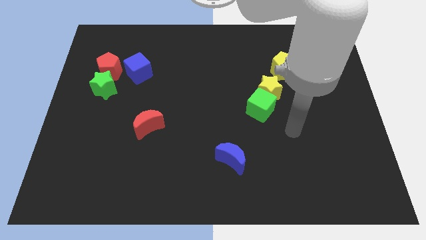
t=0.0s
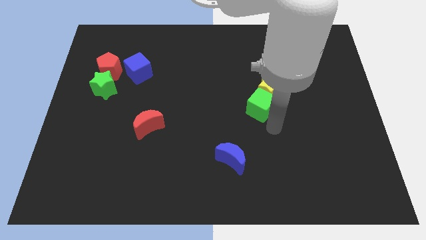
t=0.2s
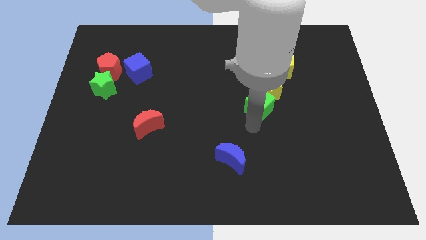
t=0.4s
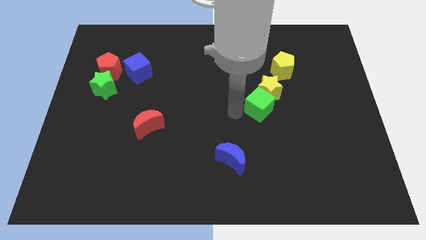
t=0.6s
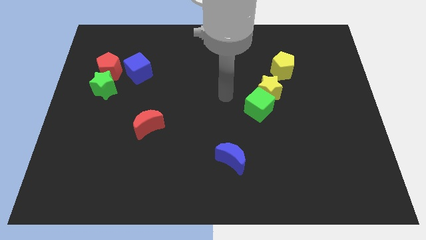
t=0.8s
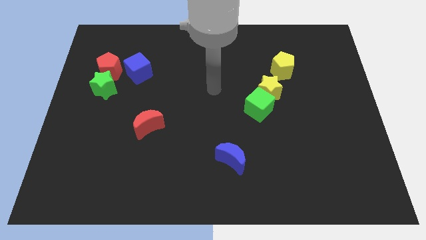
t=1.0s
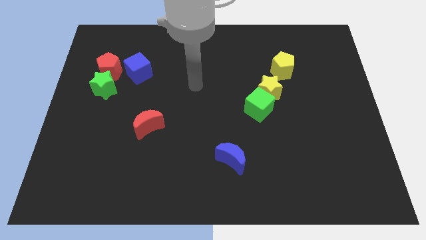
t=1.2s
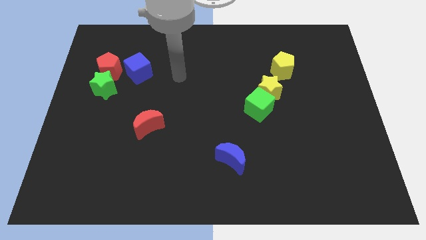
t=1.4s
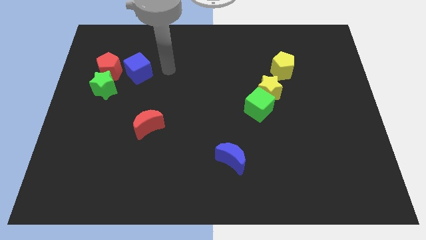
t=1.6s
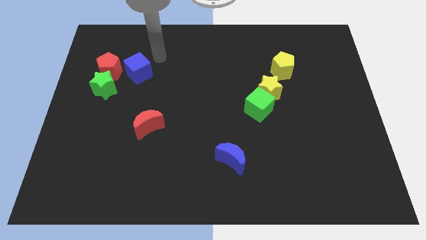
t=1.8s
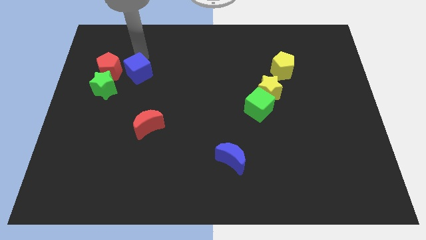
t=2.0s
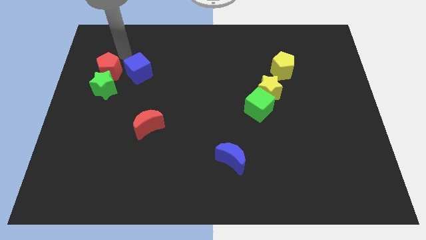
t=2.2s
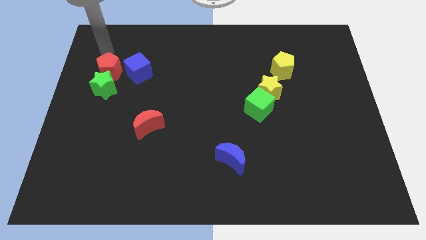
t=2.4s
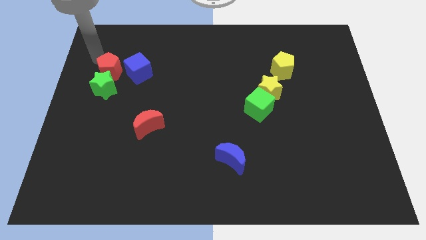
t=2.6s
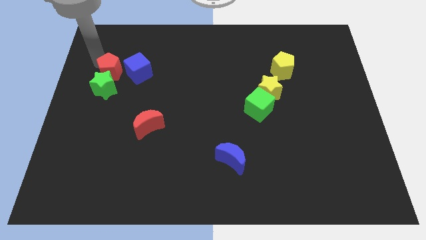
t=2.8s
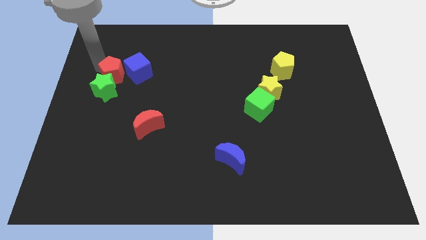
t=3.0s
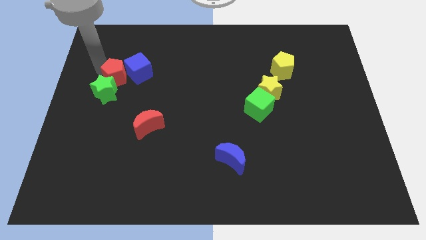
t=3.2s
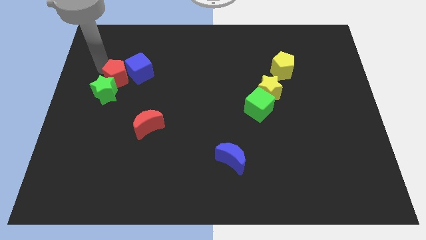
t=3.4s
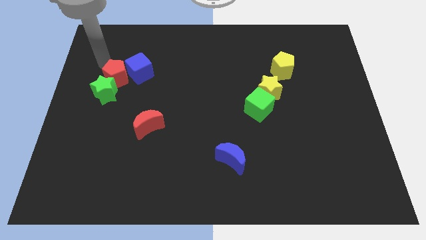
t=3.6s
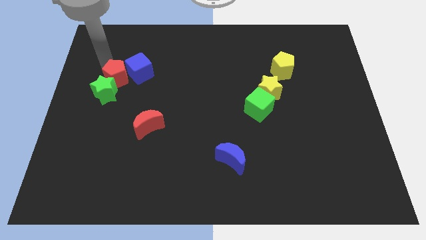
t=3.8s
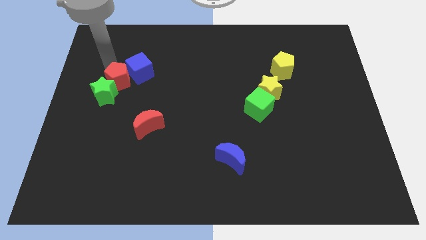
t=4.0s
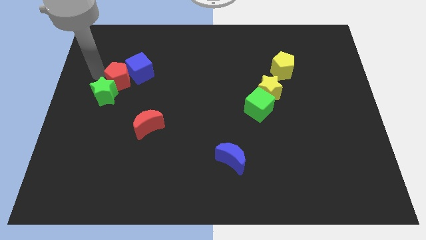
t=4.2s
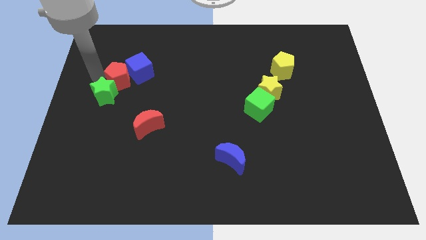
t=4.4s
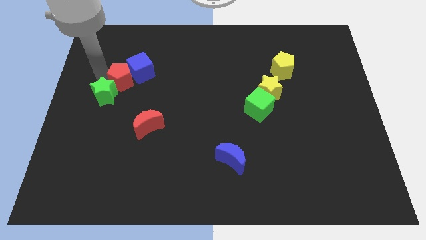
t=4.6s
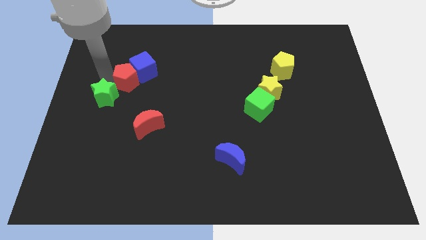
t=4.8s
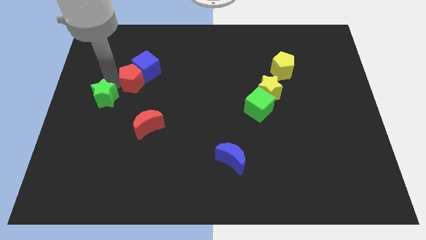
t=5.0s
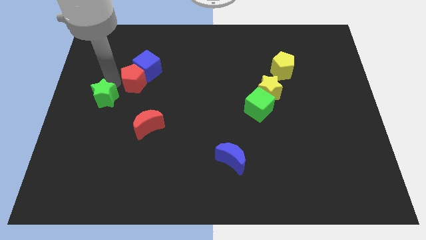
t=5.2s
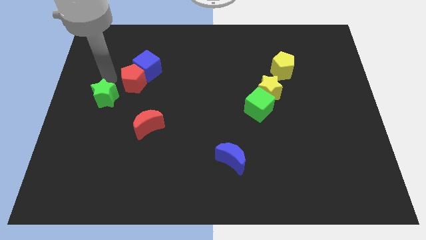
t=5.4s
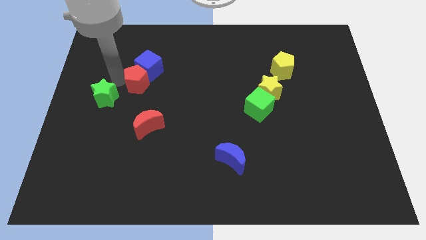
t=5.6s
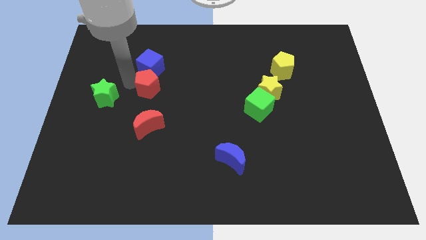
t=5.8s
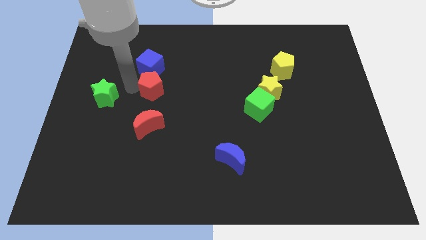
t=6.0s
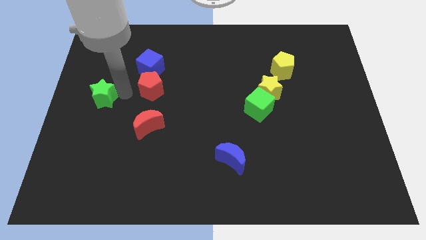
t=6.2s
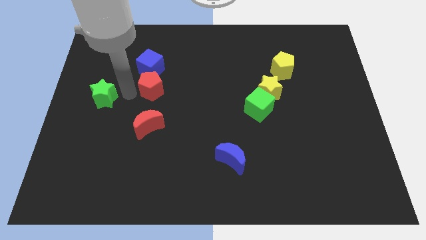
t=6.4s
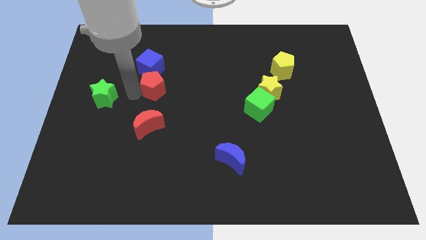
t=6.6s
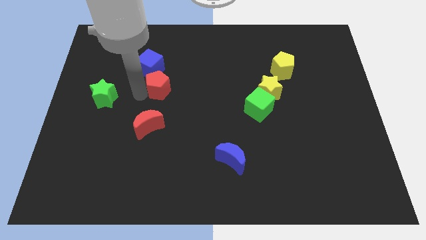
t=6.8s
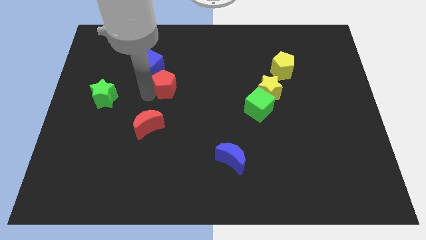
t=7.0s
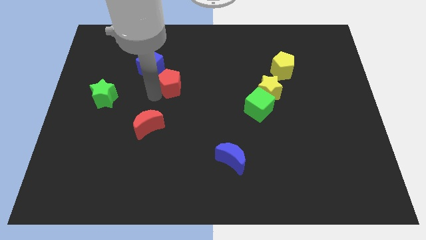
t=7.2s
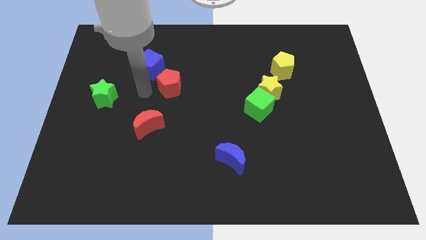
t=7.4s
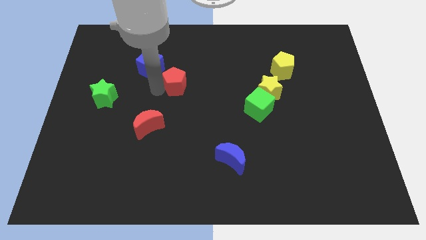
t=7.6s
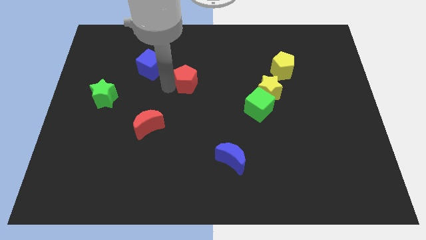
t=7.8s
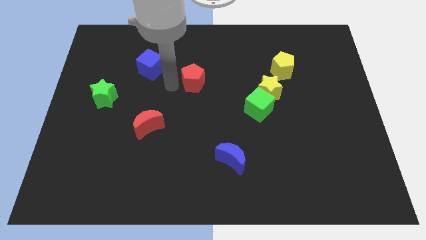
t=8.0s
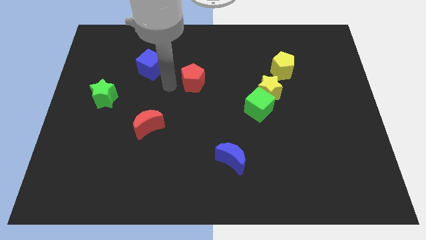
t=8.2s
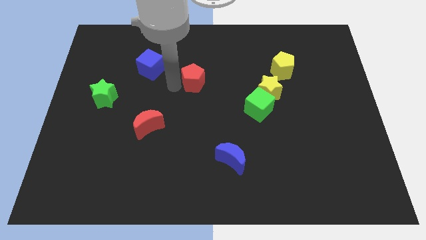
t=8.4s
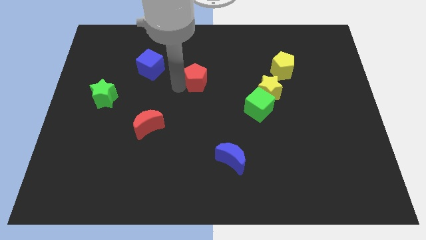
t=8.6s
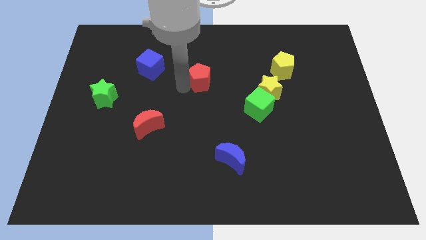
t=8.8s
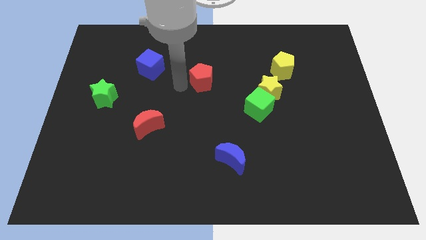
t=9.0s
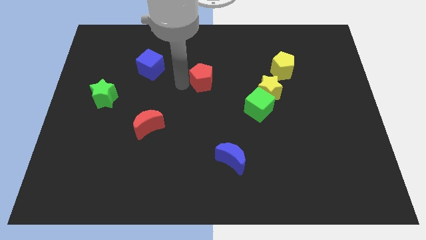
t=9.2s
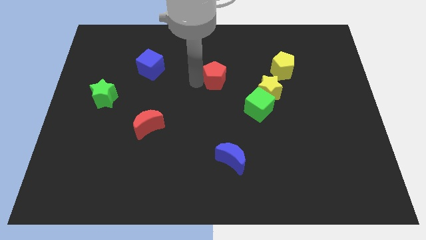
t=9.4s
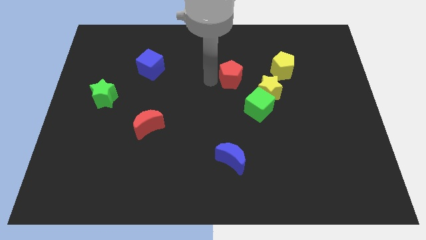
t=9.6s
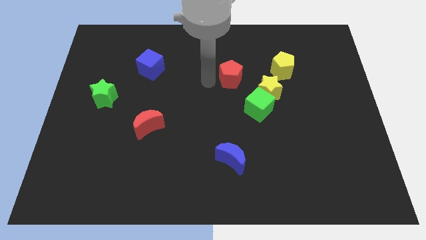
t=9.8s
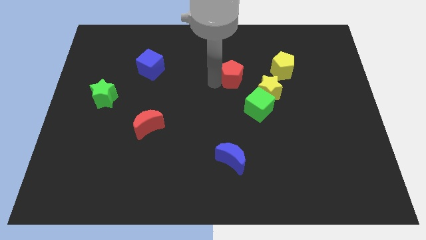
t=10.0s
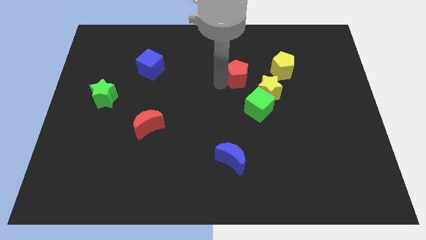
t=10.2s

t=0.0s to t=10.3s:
put the red pentagon above the green cube
